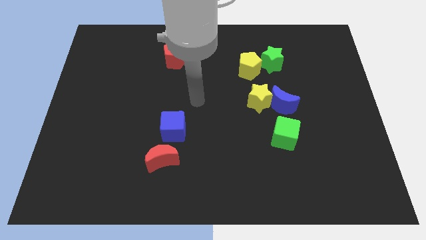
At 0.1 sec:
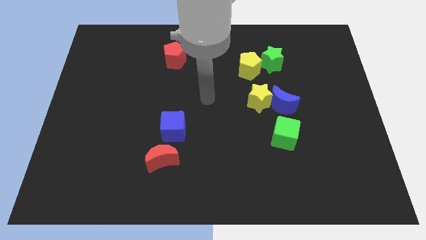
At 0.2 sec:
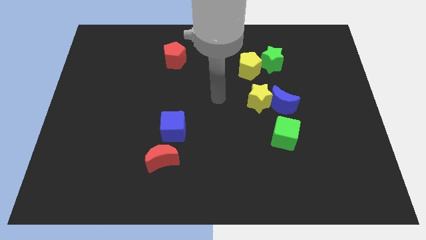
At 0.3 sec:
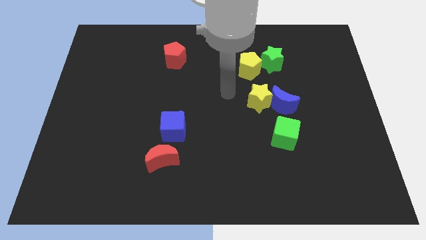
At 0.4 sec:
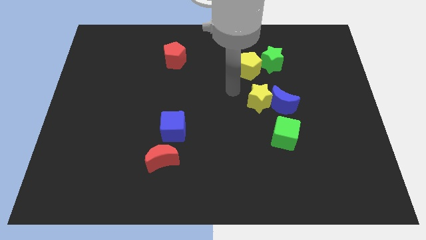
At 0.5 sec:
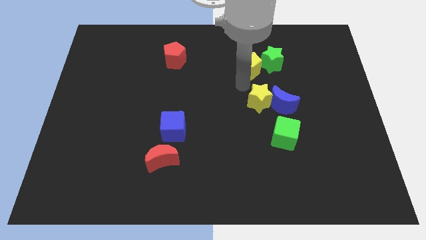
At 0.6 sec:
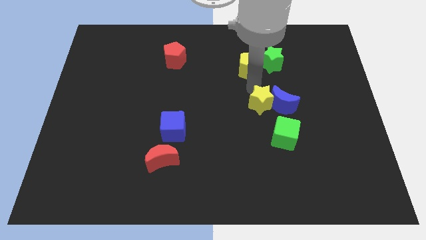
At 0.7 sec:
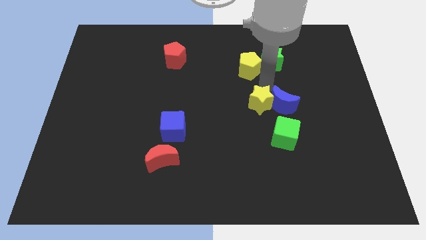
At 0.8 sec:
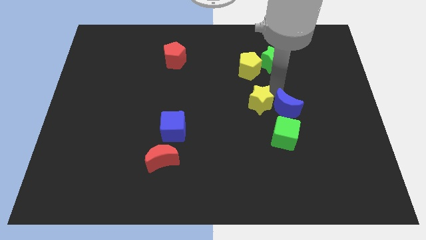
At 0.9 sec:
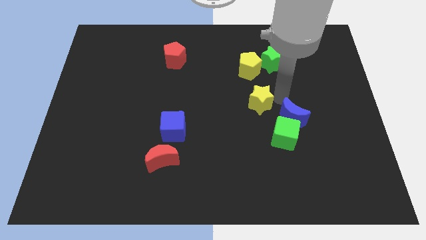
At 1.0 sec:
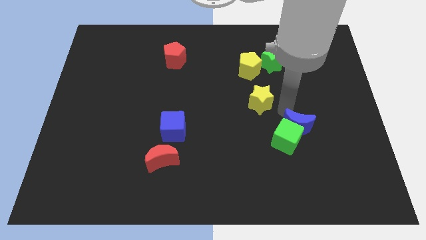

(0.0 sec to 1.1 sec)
separate the yellow star from the blue moon

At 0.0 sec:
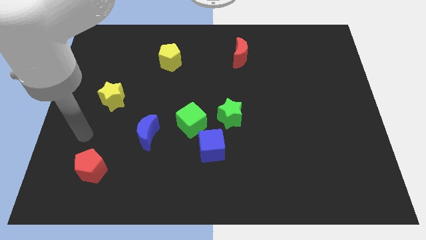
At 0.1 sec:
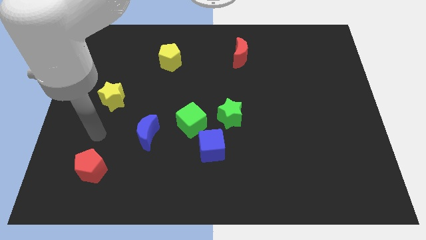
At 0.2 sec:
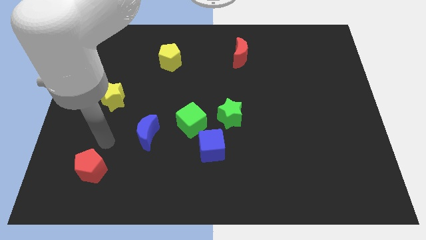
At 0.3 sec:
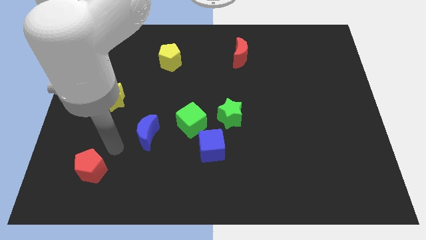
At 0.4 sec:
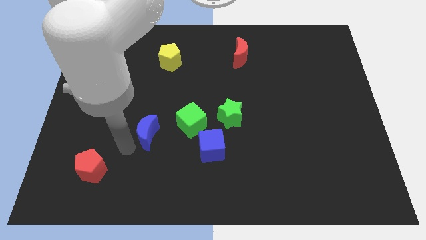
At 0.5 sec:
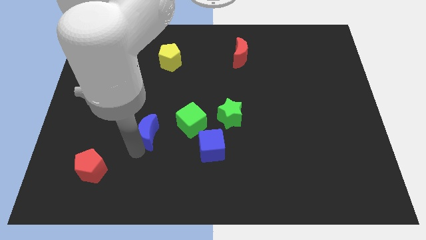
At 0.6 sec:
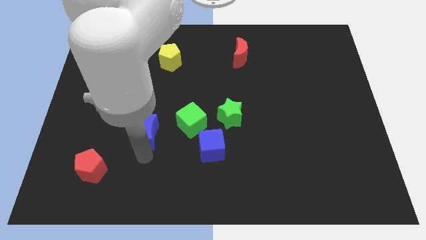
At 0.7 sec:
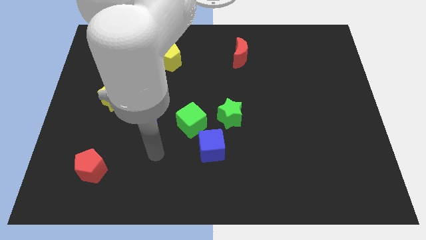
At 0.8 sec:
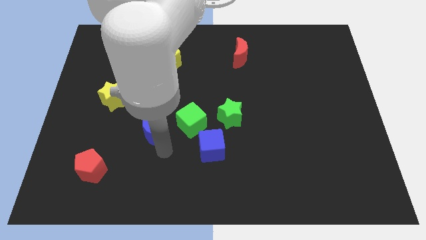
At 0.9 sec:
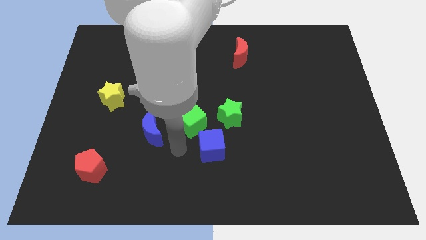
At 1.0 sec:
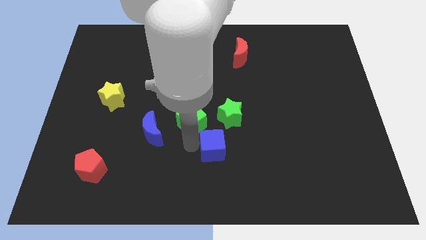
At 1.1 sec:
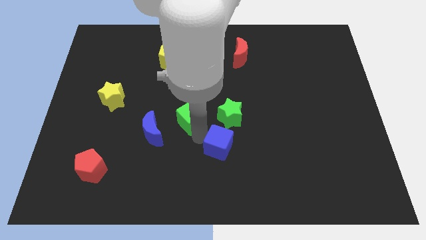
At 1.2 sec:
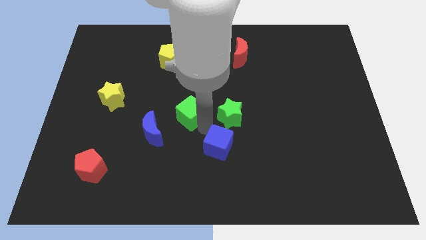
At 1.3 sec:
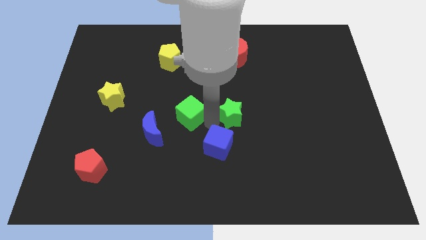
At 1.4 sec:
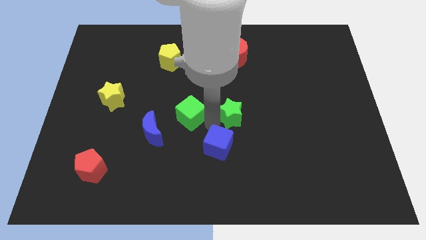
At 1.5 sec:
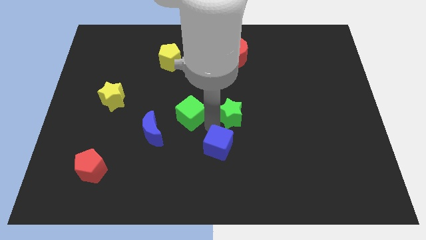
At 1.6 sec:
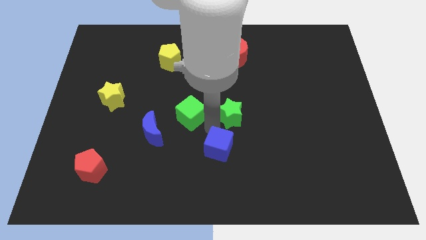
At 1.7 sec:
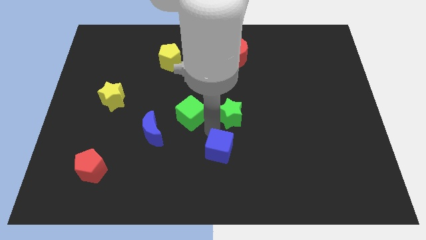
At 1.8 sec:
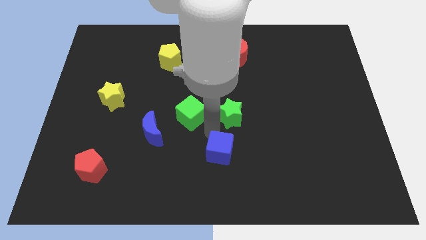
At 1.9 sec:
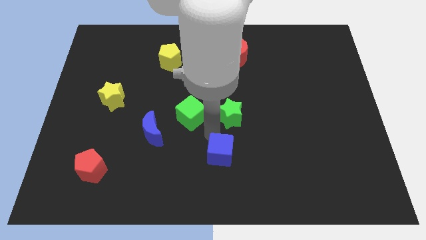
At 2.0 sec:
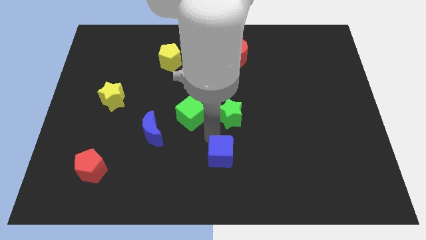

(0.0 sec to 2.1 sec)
pull the blue cube apart from the green cube and green star

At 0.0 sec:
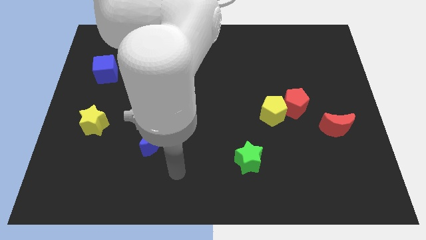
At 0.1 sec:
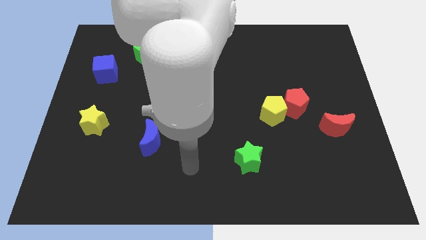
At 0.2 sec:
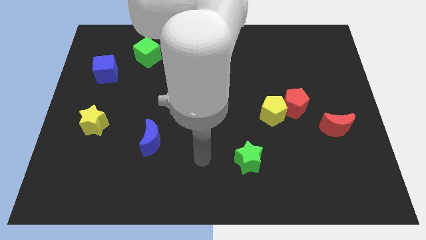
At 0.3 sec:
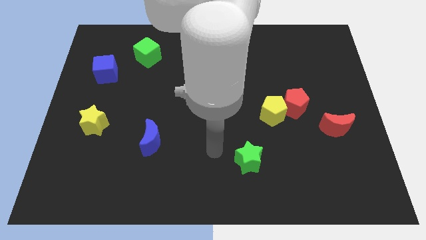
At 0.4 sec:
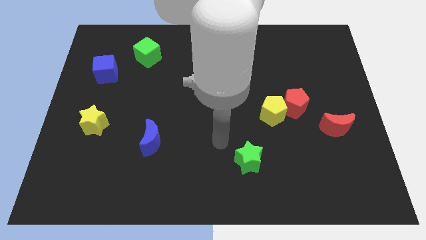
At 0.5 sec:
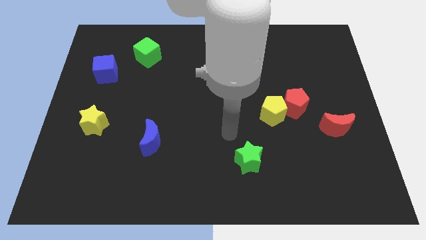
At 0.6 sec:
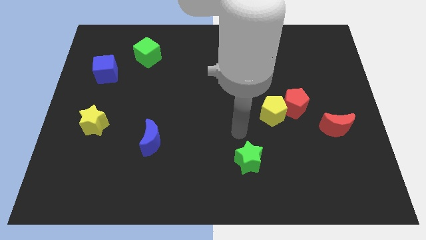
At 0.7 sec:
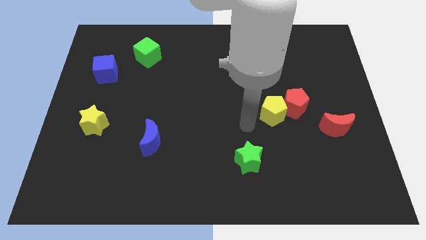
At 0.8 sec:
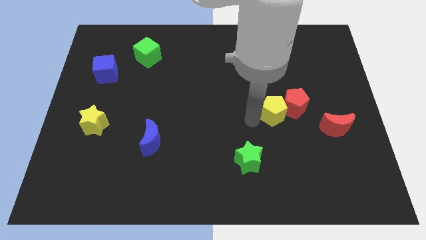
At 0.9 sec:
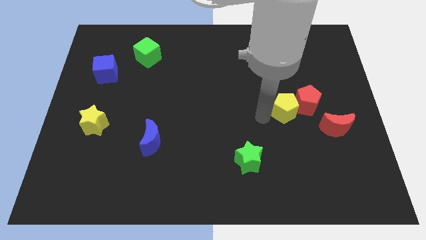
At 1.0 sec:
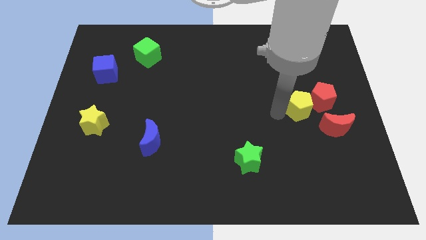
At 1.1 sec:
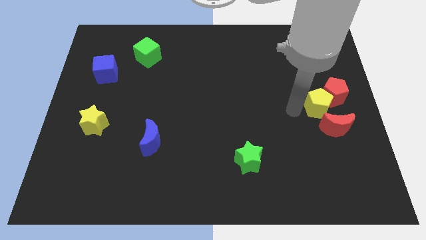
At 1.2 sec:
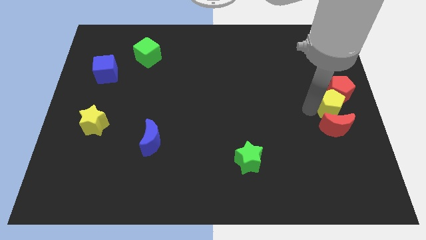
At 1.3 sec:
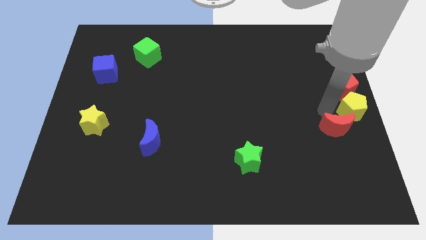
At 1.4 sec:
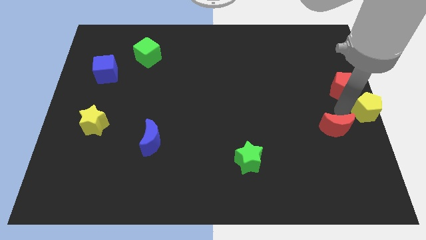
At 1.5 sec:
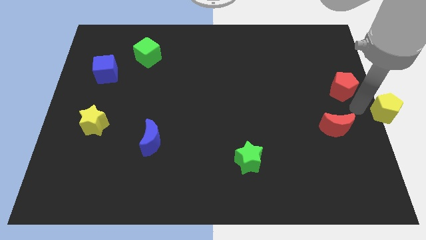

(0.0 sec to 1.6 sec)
move the red pentagon away from the yellow pentagon

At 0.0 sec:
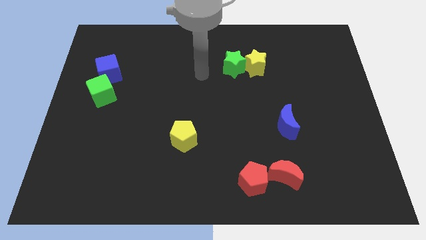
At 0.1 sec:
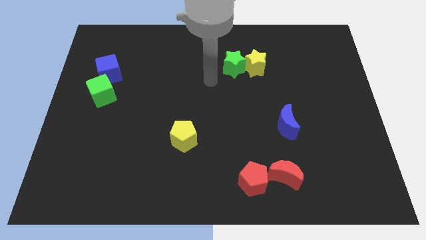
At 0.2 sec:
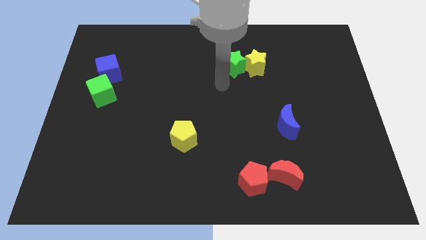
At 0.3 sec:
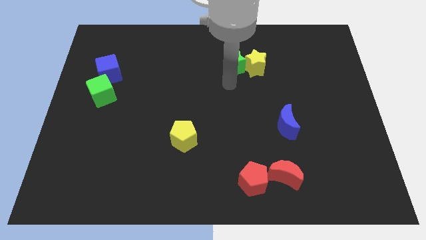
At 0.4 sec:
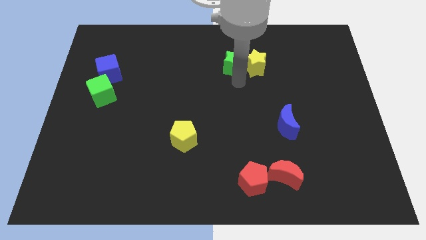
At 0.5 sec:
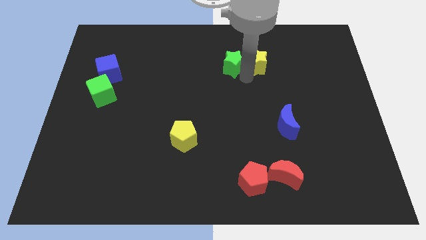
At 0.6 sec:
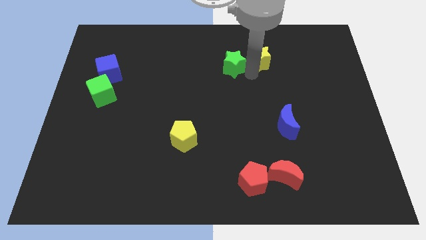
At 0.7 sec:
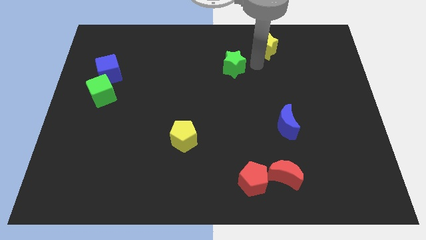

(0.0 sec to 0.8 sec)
move the green star away from the yellow star

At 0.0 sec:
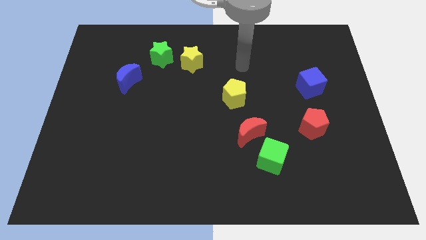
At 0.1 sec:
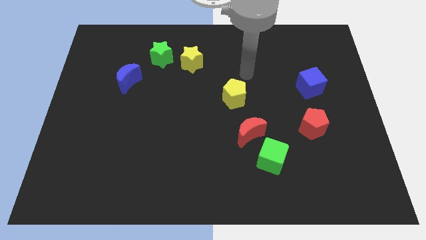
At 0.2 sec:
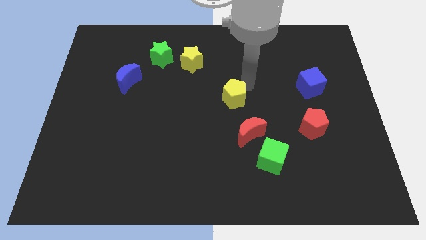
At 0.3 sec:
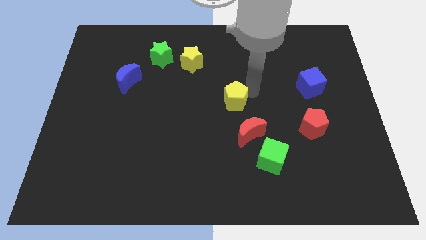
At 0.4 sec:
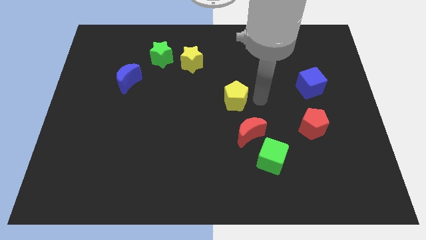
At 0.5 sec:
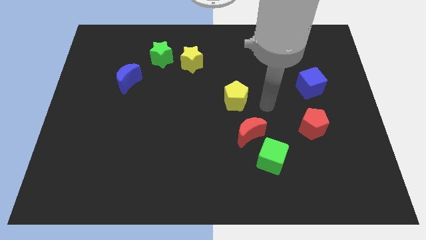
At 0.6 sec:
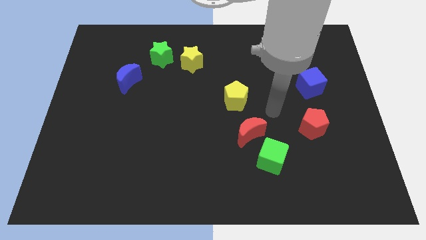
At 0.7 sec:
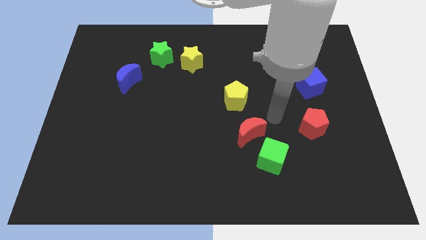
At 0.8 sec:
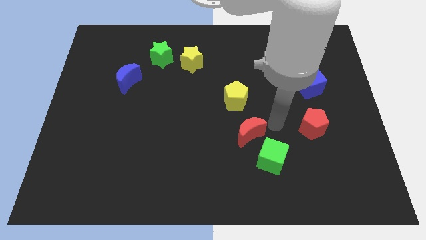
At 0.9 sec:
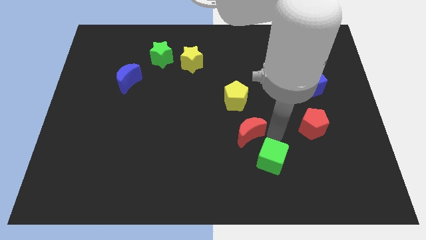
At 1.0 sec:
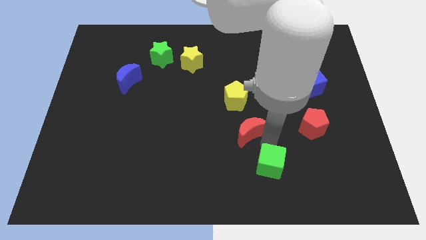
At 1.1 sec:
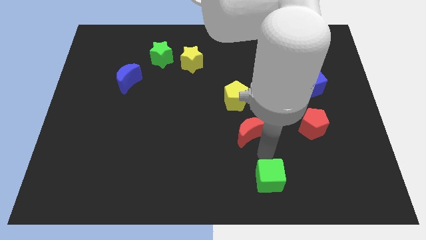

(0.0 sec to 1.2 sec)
separate the red moon from the green cube

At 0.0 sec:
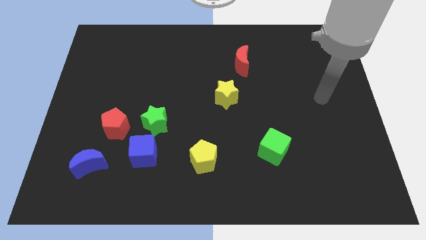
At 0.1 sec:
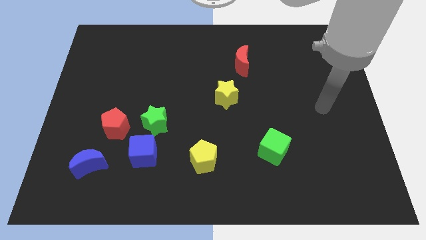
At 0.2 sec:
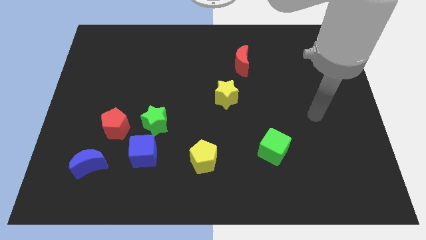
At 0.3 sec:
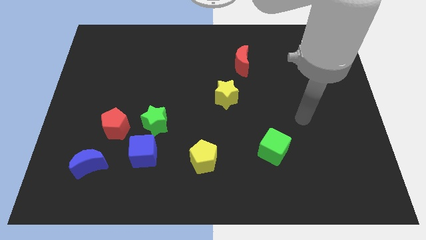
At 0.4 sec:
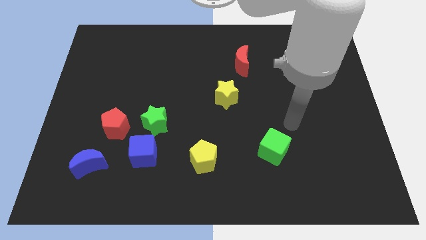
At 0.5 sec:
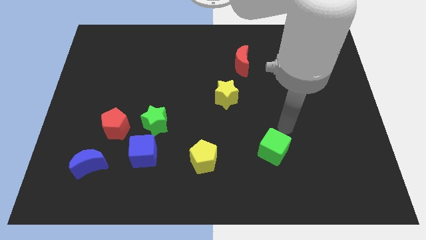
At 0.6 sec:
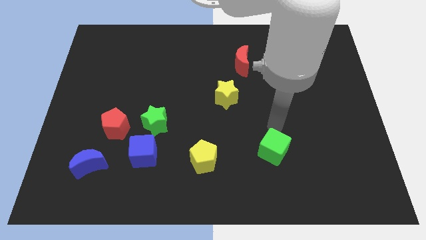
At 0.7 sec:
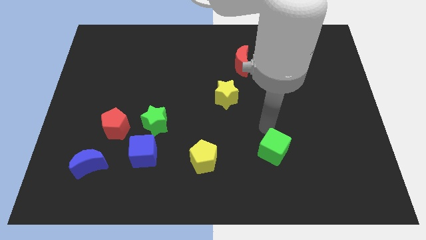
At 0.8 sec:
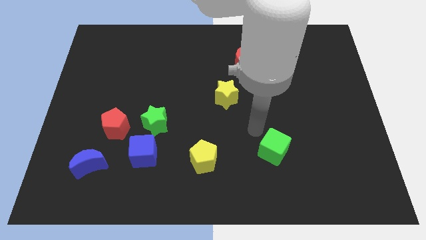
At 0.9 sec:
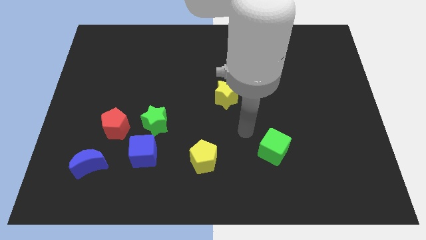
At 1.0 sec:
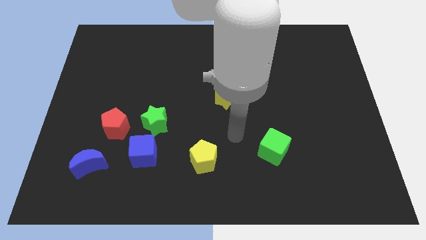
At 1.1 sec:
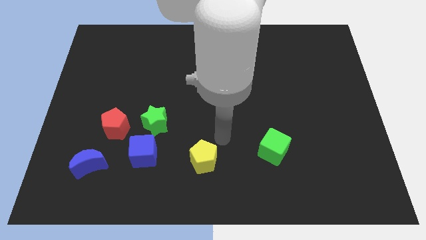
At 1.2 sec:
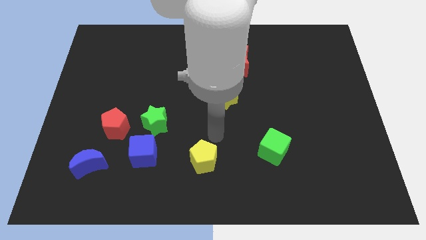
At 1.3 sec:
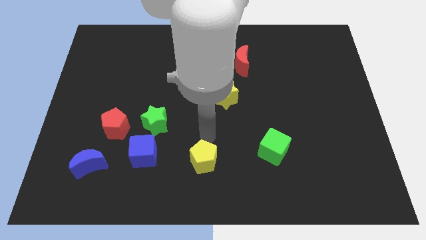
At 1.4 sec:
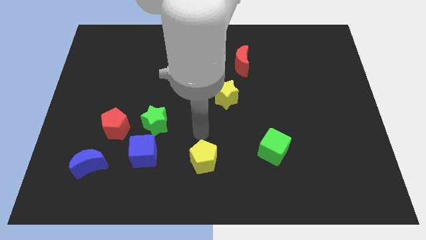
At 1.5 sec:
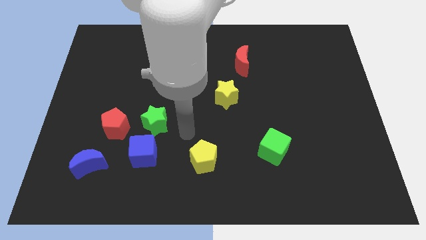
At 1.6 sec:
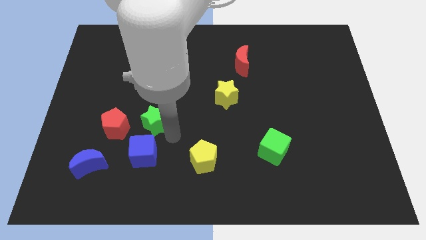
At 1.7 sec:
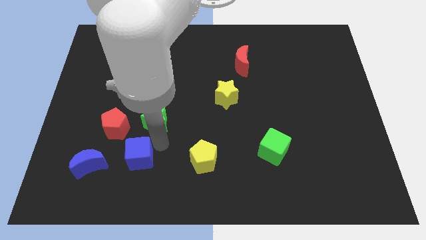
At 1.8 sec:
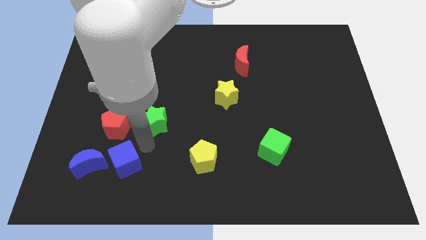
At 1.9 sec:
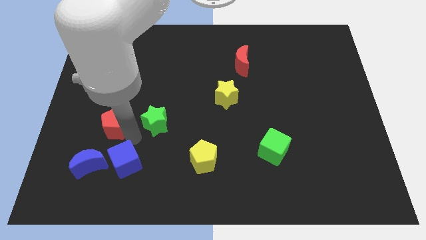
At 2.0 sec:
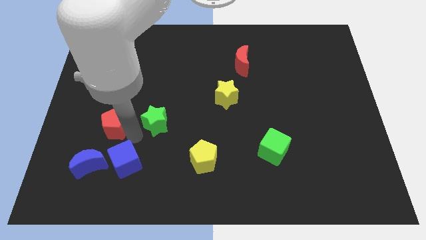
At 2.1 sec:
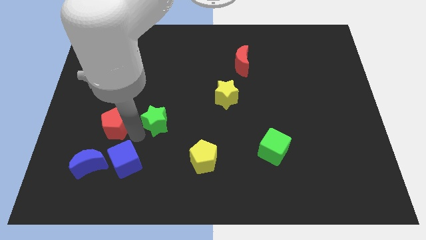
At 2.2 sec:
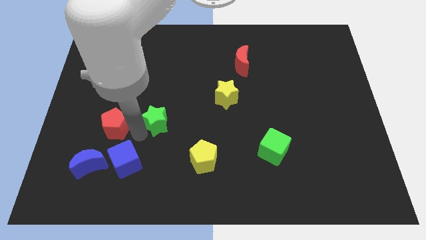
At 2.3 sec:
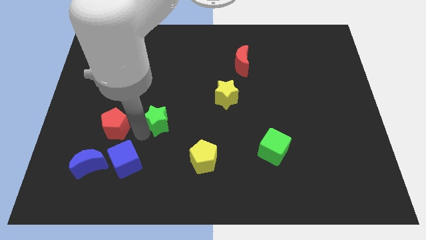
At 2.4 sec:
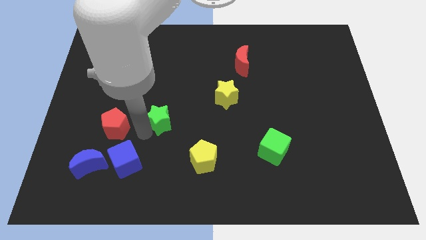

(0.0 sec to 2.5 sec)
pull the green star apart from the blue cube and red pentagon
